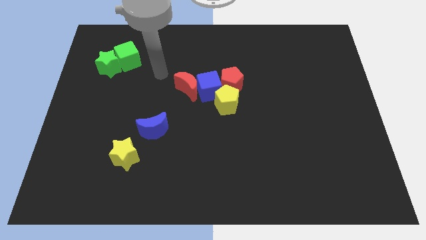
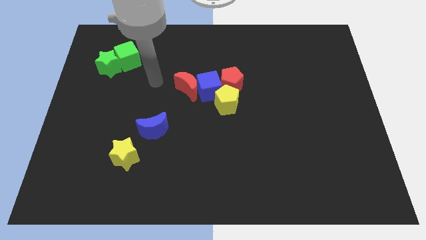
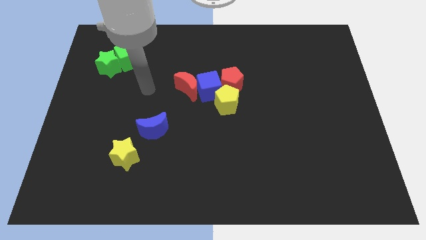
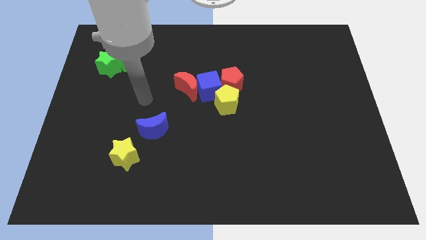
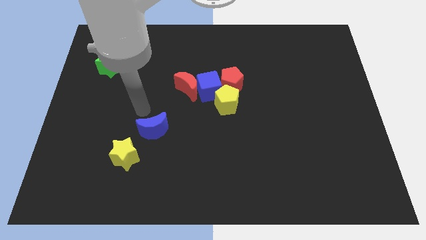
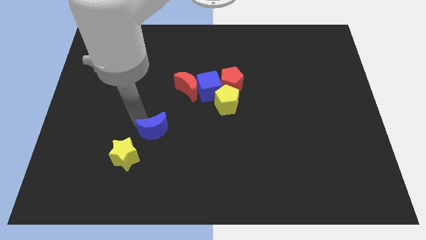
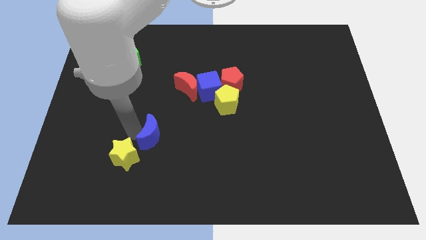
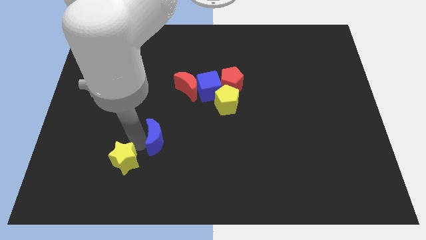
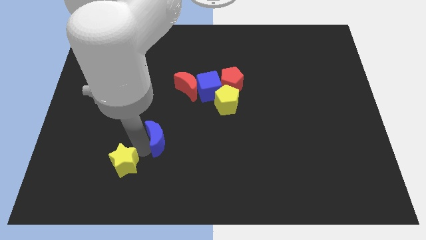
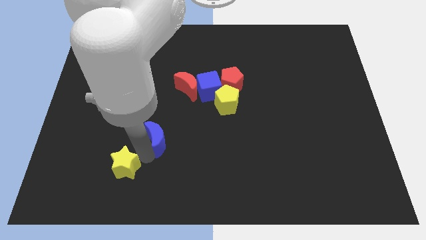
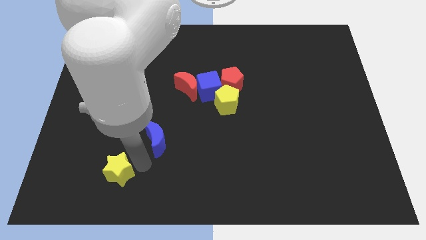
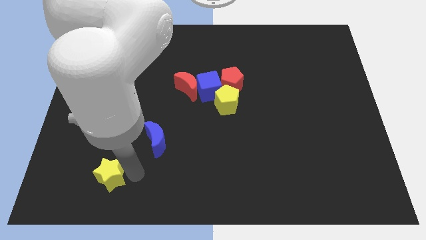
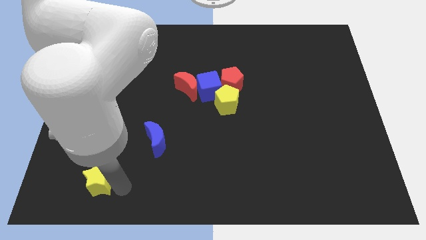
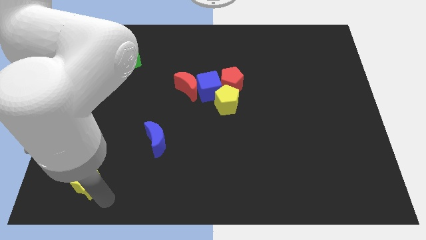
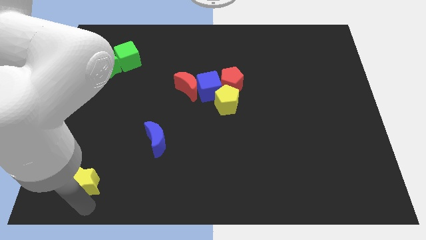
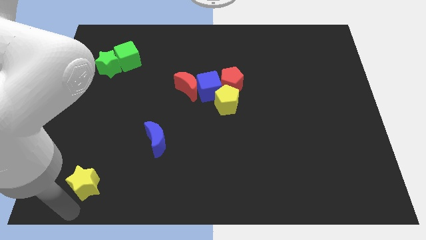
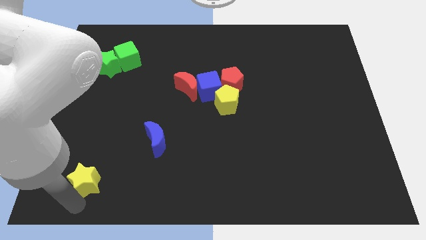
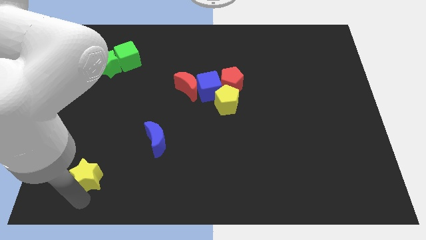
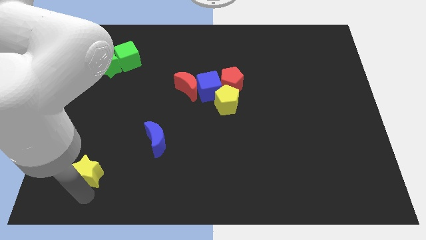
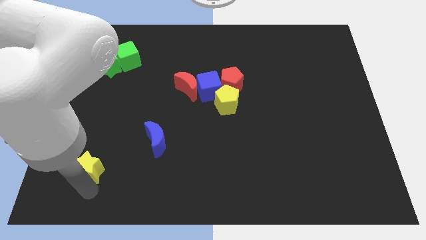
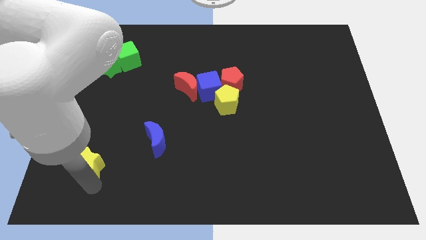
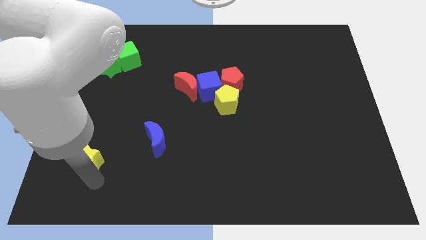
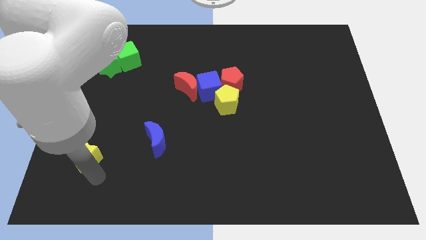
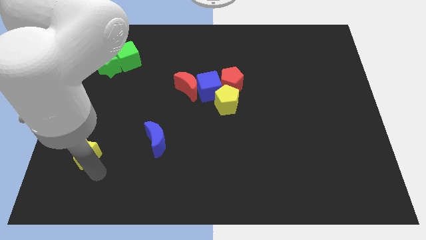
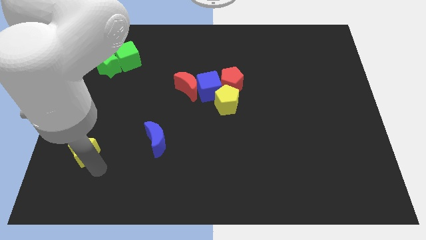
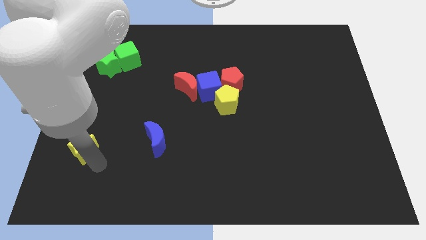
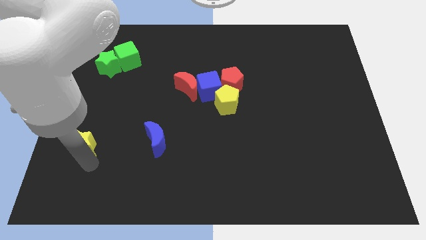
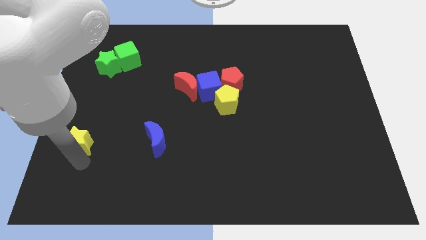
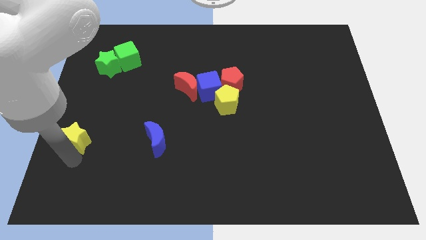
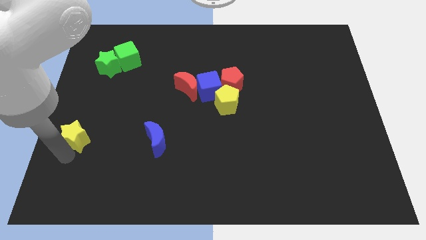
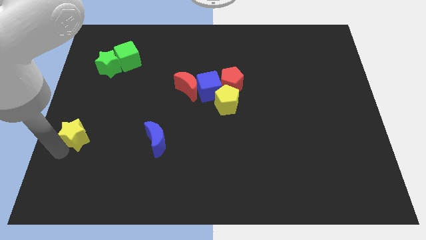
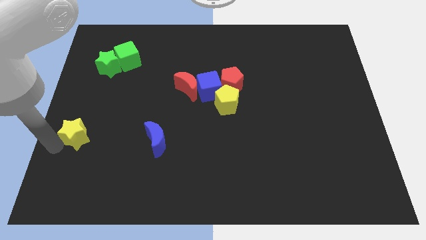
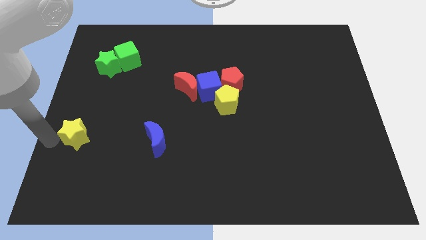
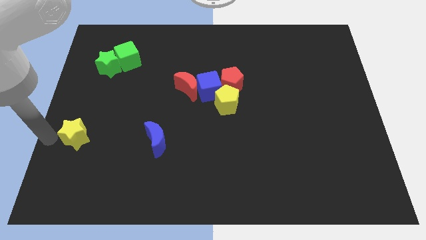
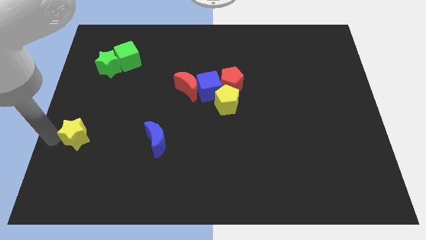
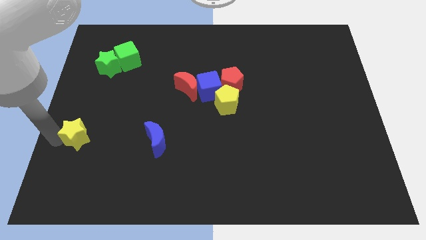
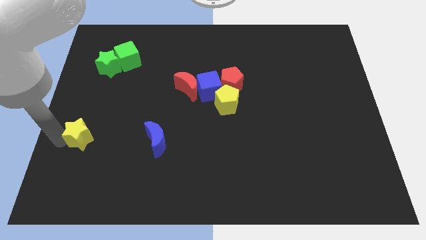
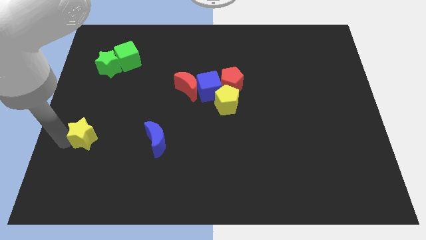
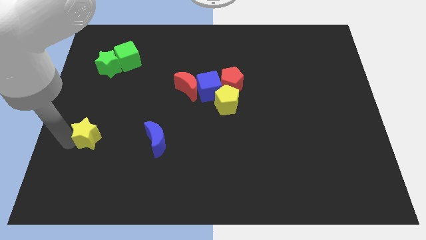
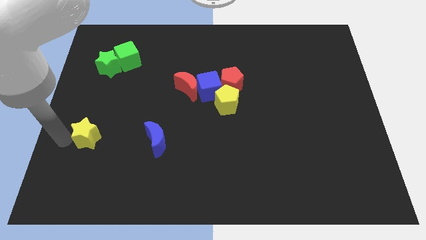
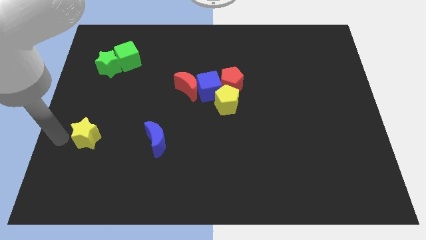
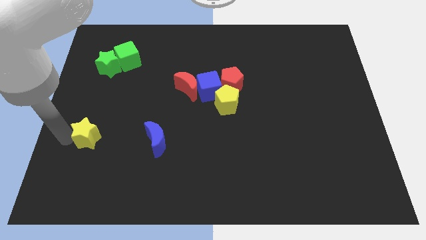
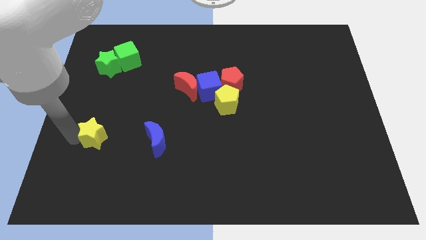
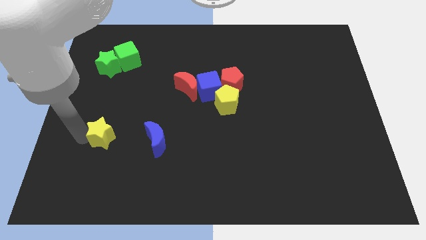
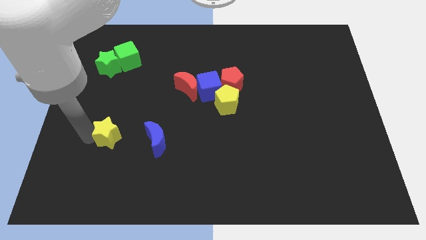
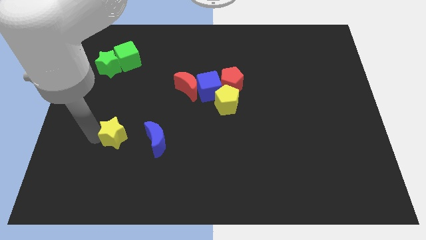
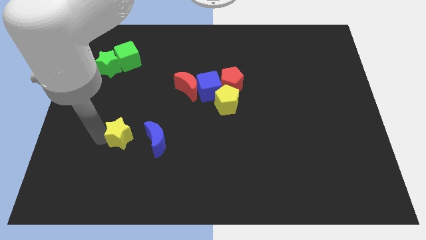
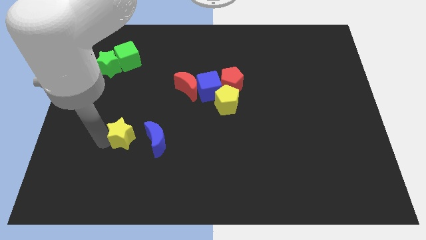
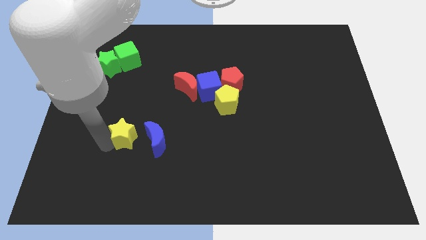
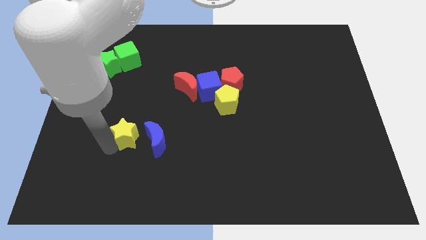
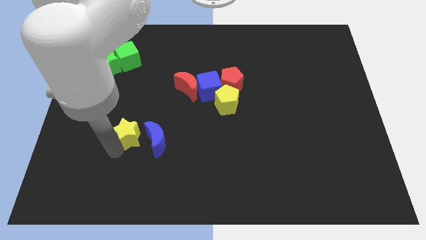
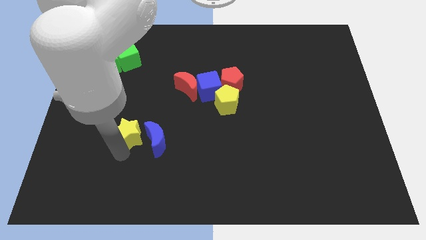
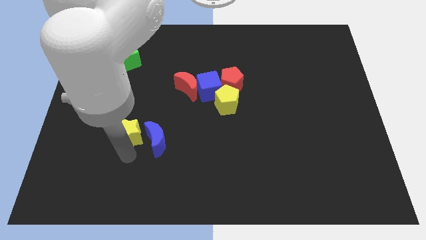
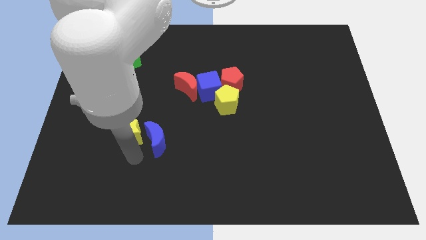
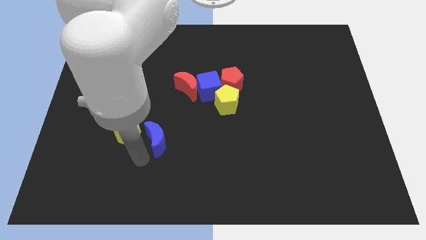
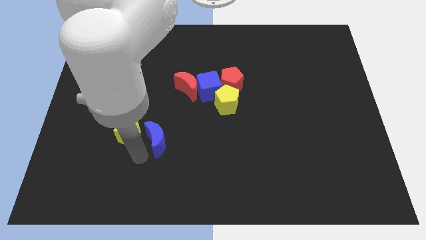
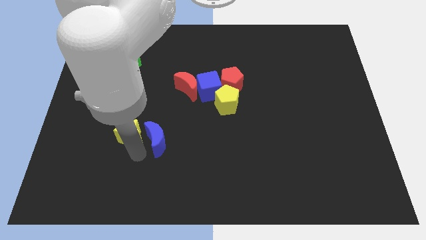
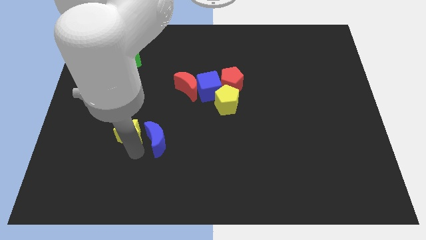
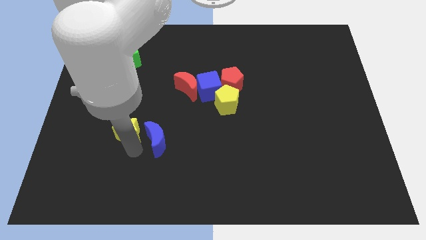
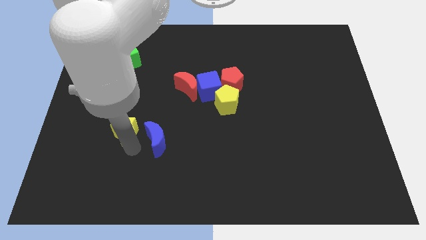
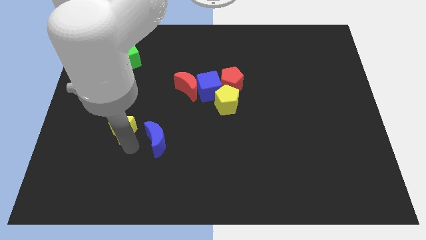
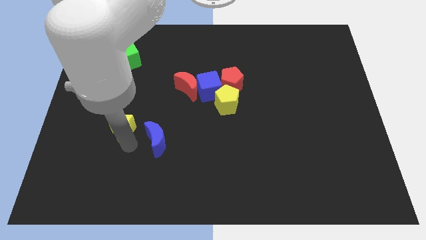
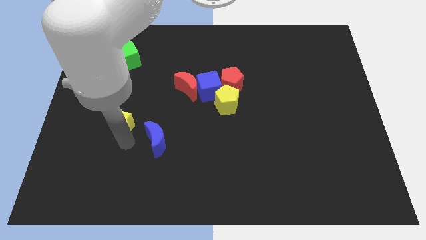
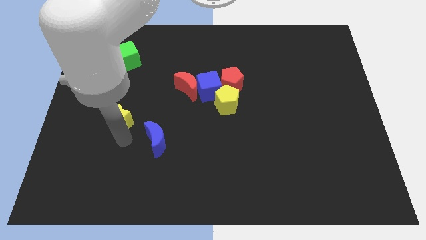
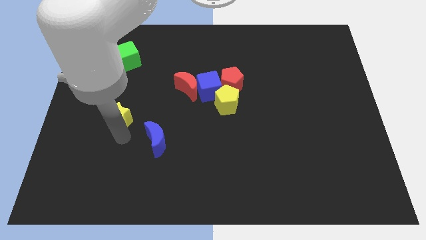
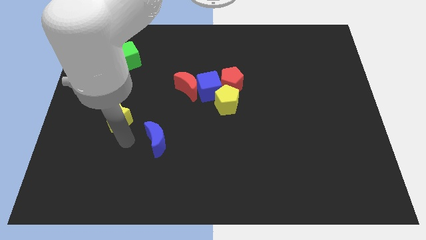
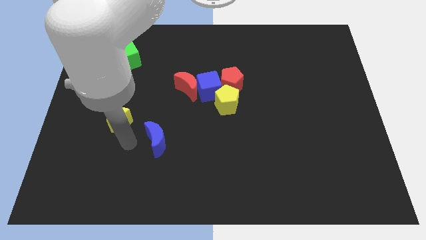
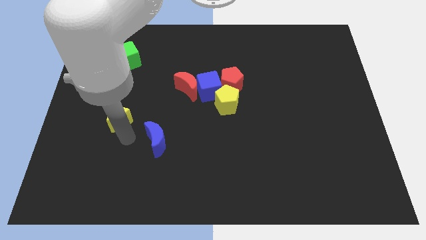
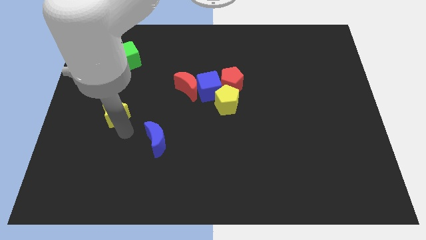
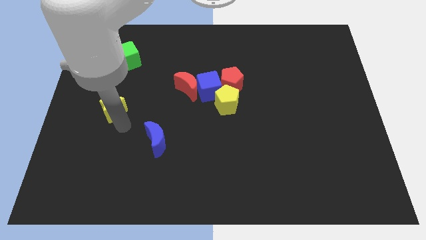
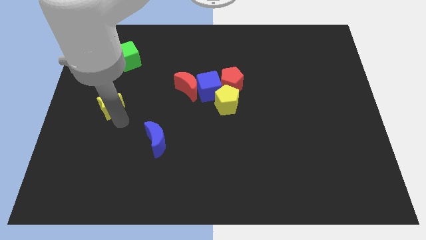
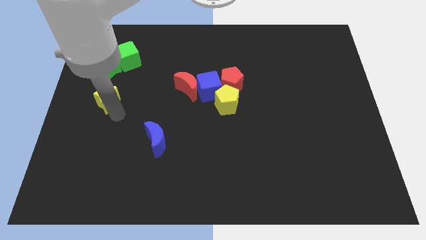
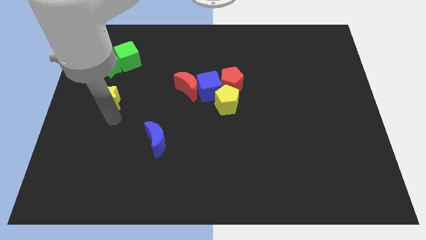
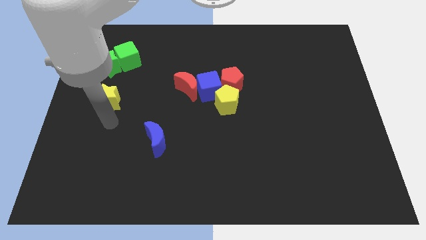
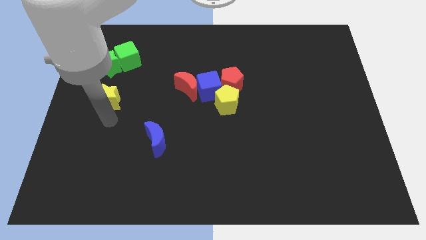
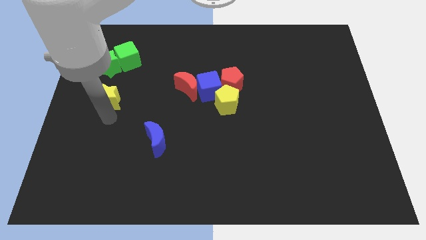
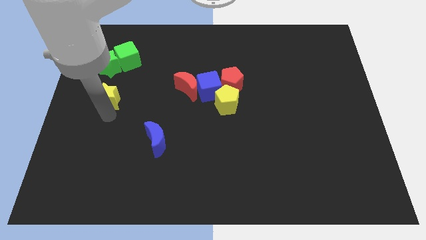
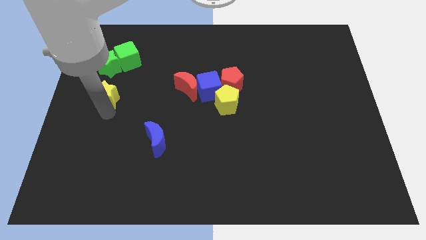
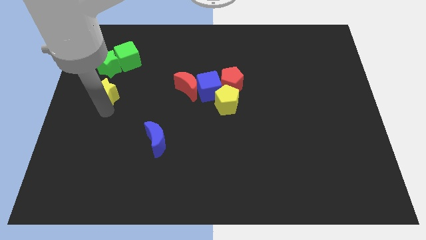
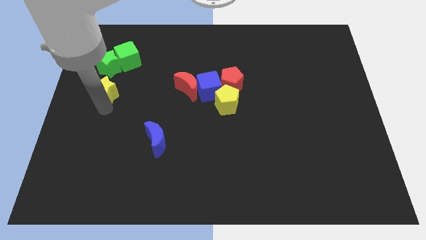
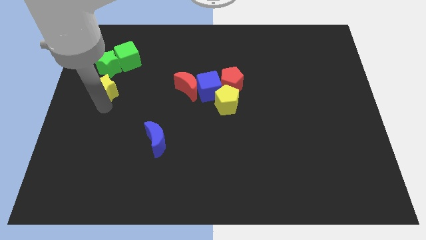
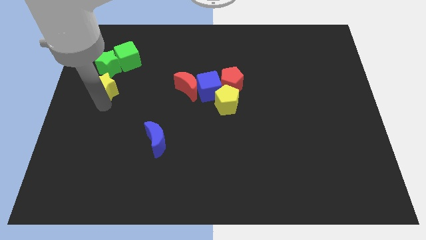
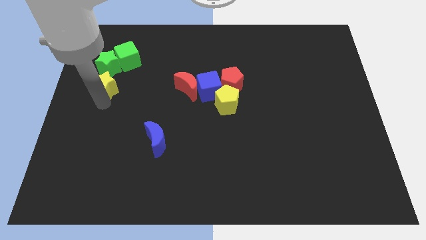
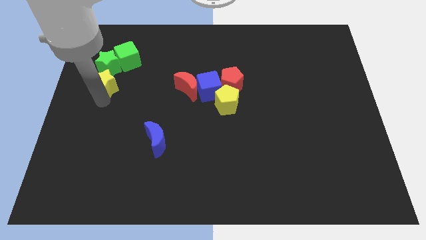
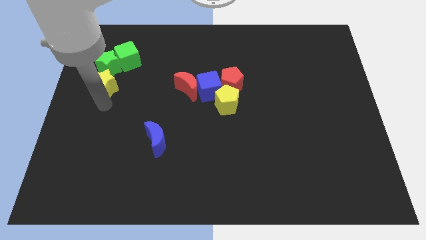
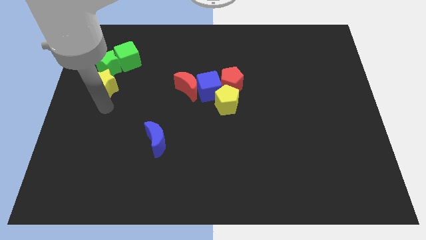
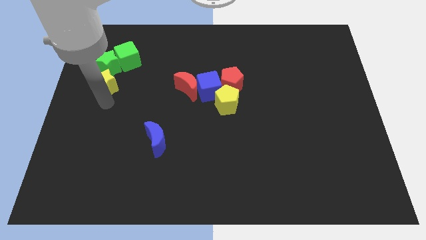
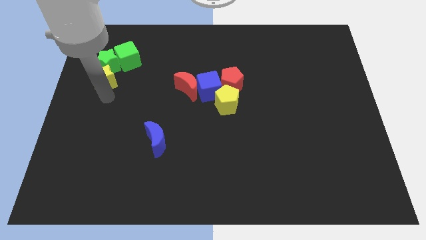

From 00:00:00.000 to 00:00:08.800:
push the yellow star close to the green star
